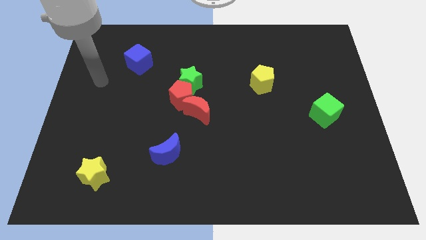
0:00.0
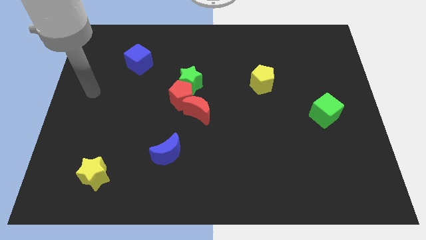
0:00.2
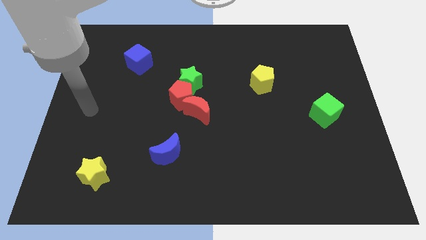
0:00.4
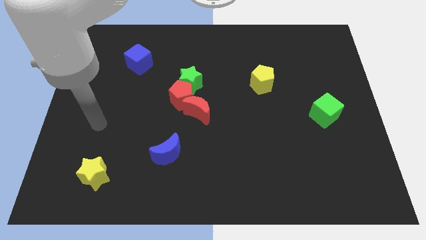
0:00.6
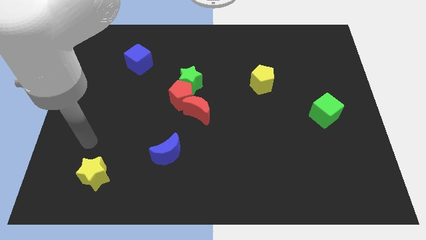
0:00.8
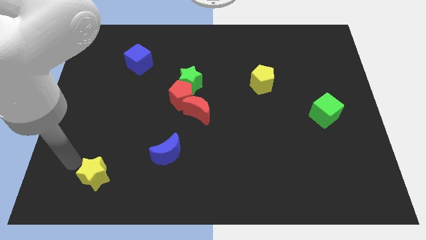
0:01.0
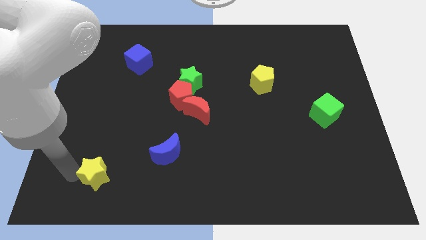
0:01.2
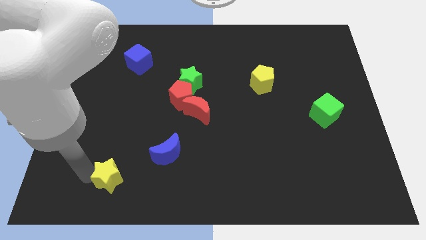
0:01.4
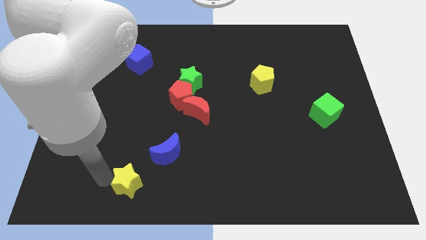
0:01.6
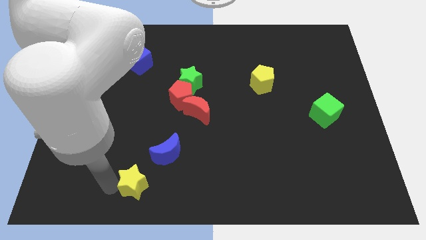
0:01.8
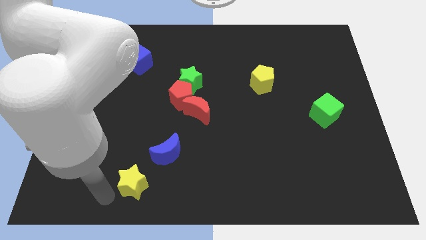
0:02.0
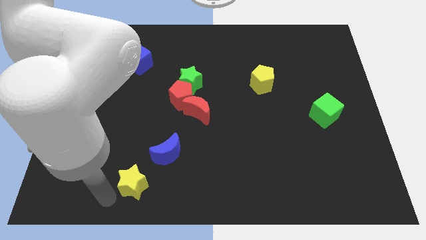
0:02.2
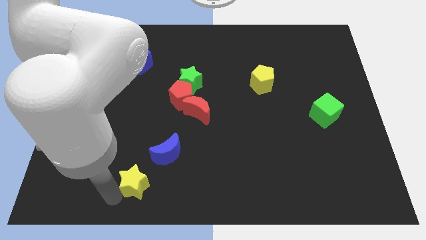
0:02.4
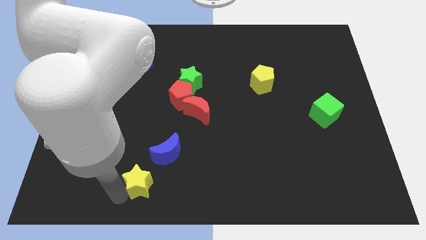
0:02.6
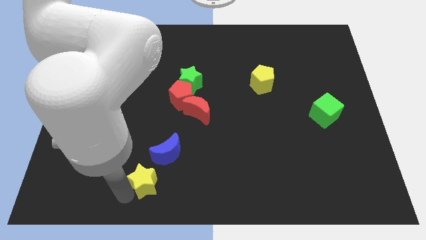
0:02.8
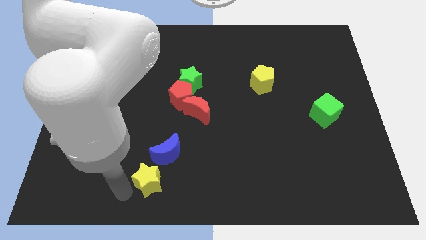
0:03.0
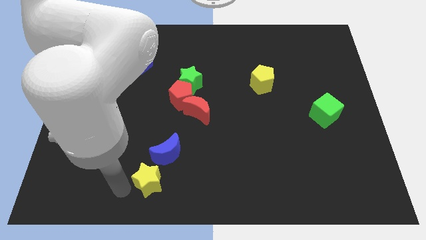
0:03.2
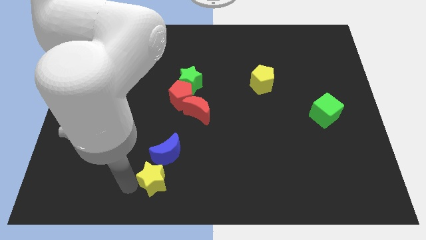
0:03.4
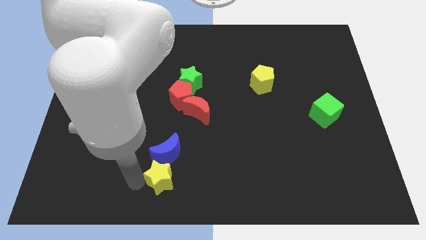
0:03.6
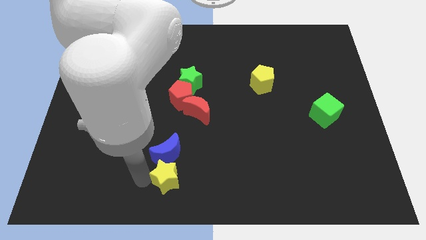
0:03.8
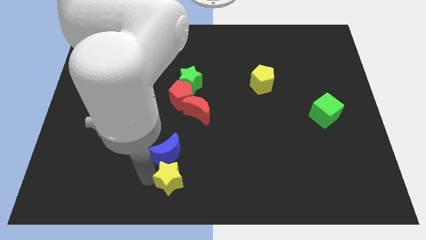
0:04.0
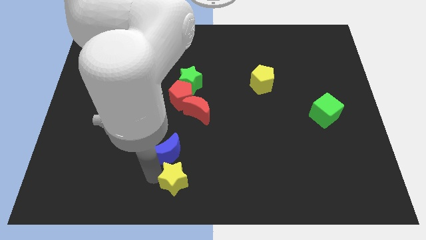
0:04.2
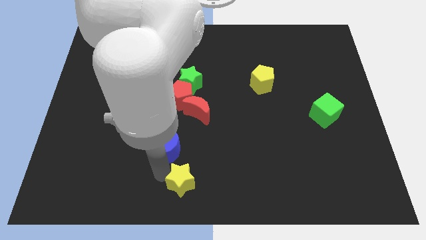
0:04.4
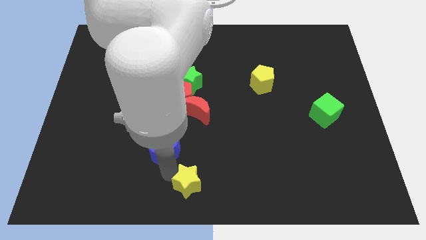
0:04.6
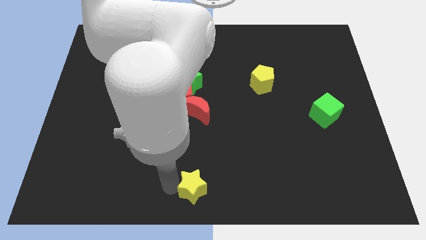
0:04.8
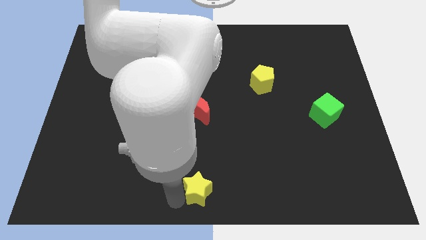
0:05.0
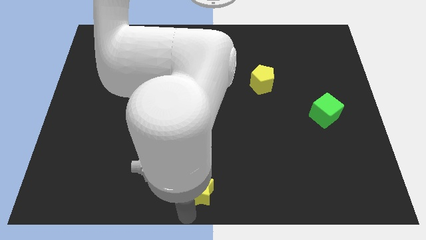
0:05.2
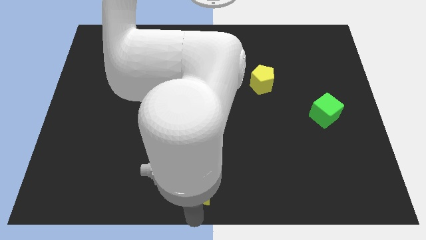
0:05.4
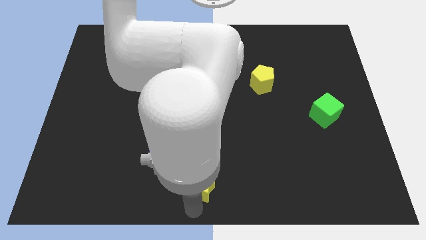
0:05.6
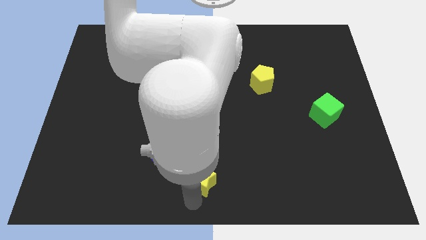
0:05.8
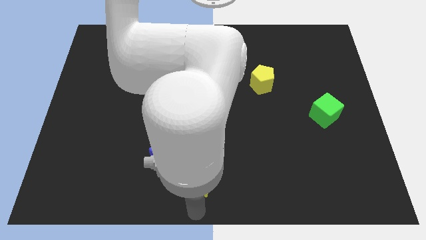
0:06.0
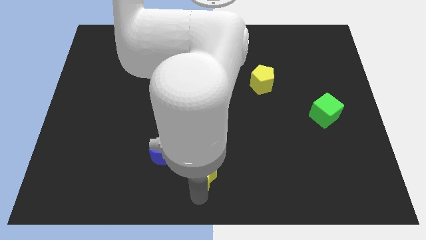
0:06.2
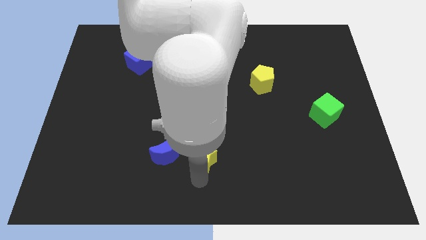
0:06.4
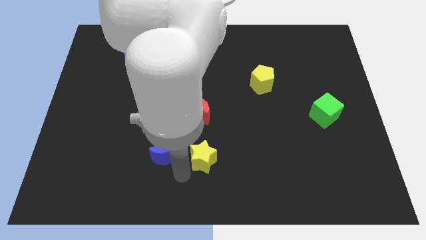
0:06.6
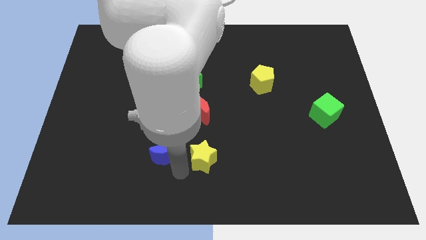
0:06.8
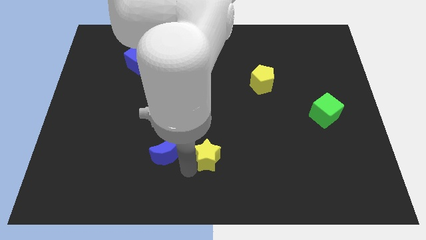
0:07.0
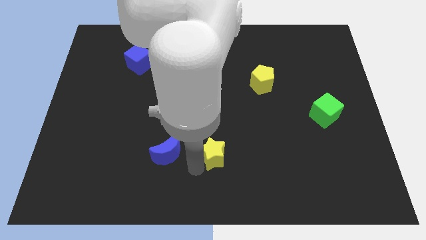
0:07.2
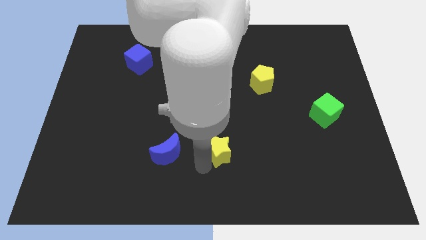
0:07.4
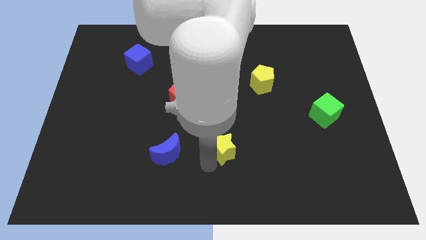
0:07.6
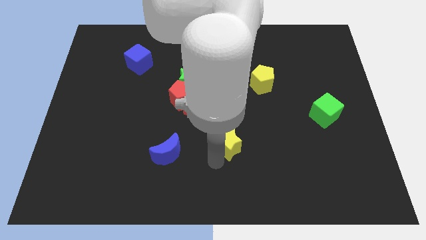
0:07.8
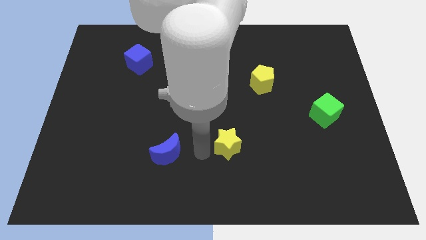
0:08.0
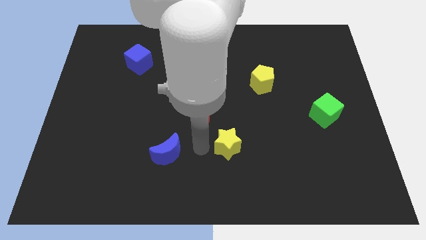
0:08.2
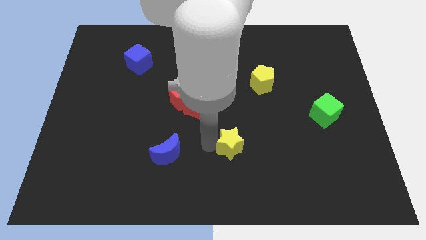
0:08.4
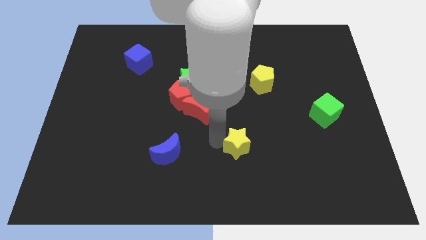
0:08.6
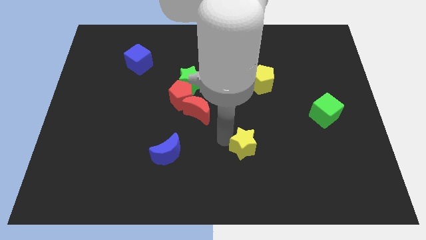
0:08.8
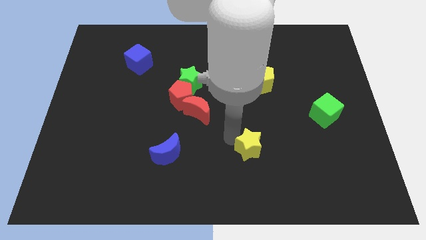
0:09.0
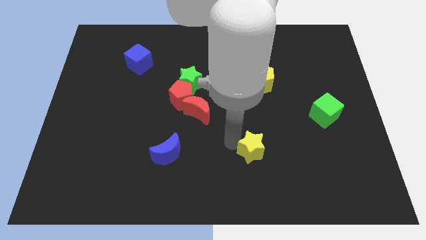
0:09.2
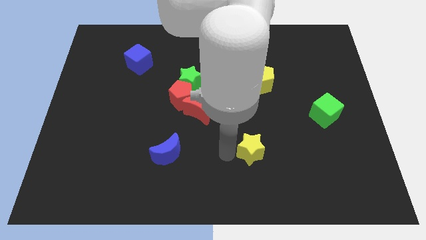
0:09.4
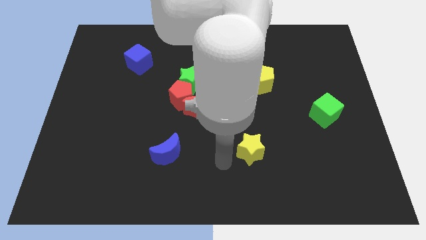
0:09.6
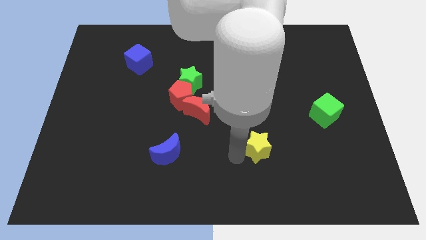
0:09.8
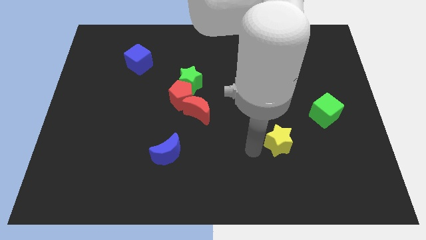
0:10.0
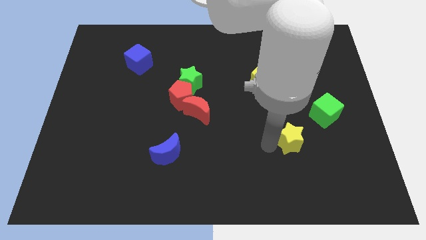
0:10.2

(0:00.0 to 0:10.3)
move the yellow star to the bottom left of the green cube

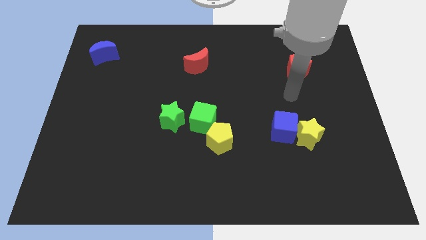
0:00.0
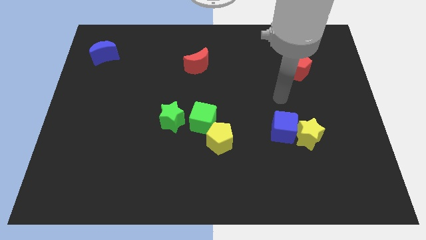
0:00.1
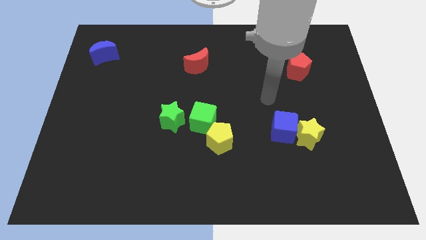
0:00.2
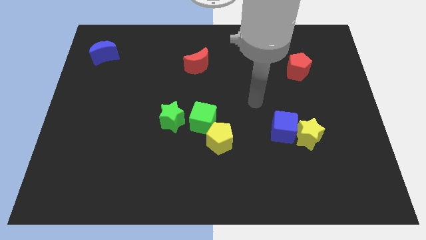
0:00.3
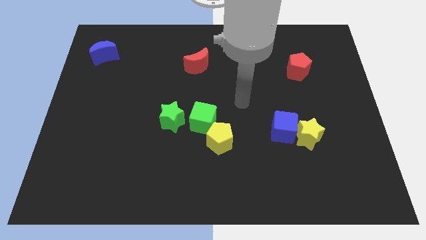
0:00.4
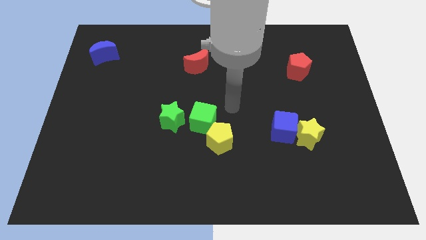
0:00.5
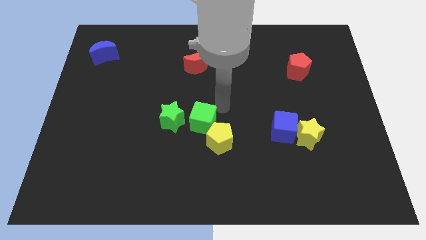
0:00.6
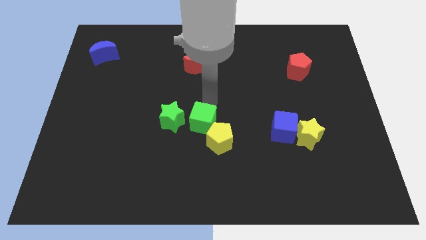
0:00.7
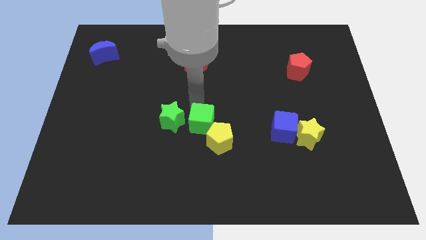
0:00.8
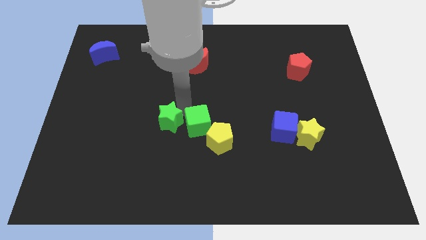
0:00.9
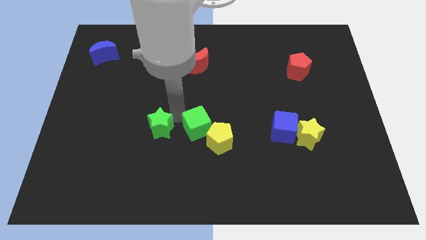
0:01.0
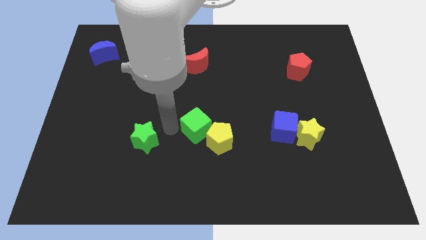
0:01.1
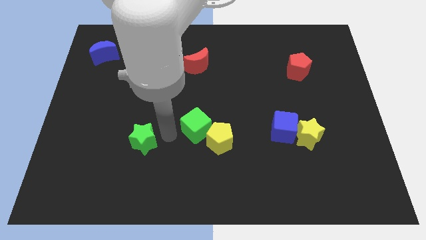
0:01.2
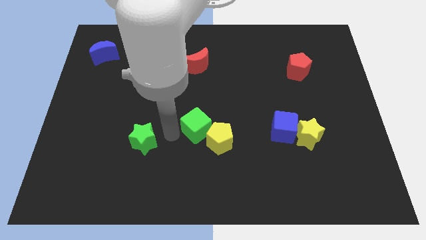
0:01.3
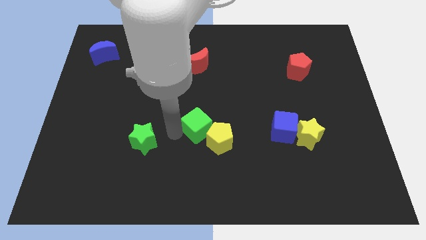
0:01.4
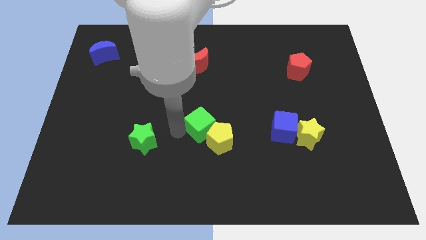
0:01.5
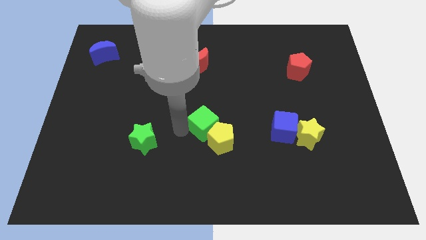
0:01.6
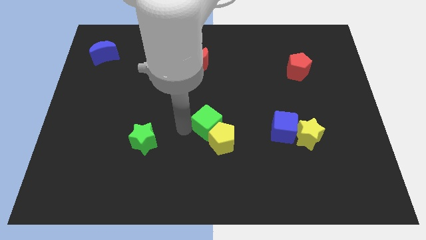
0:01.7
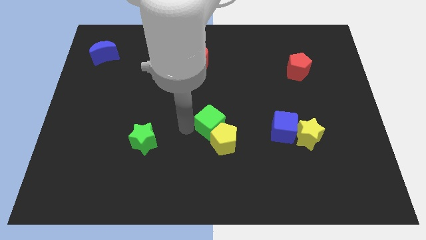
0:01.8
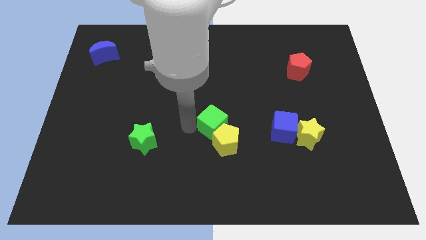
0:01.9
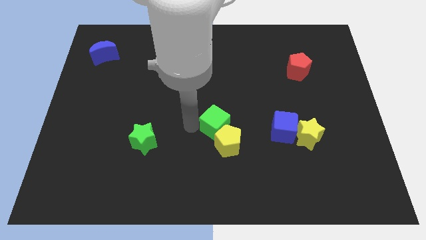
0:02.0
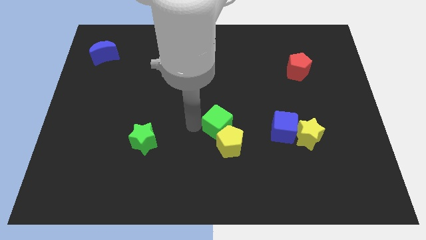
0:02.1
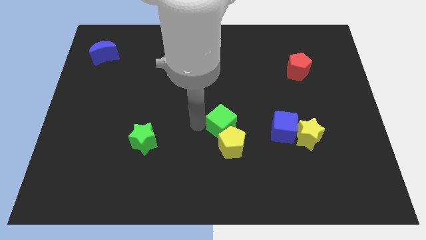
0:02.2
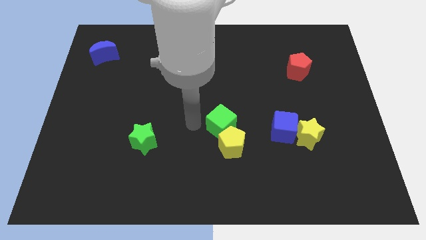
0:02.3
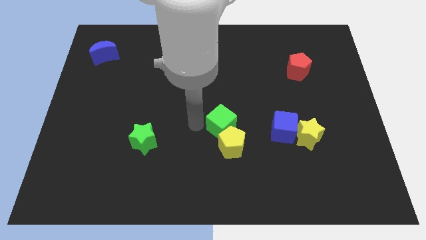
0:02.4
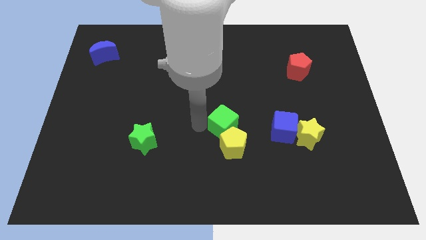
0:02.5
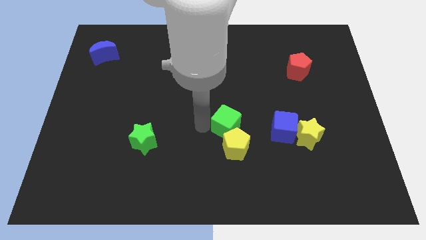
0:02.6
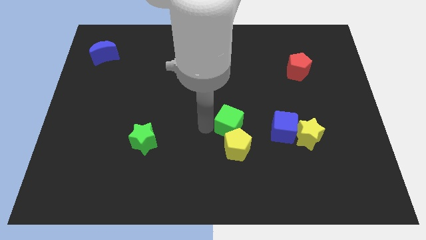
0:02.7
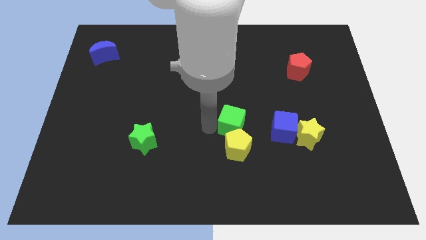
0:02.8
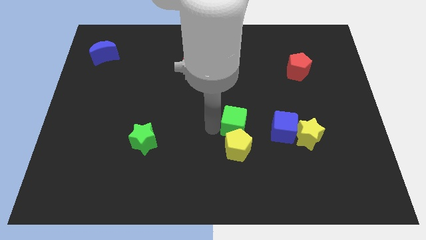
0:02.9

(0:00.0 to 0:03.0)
put the green cube diagonally up and to the right of the yellow pentagon

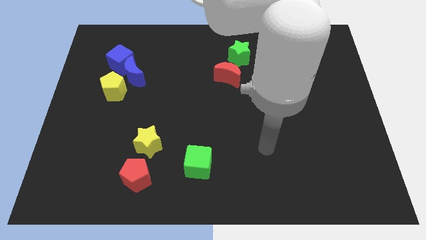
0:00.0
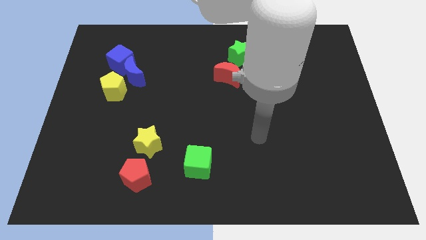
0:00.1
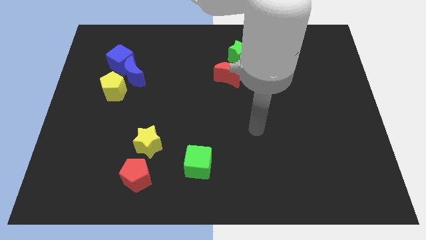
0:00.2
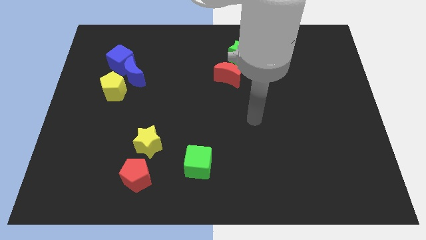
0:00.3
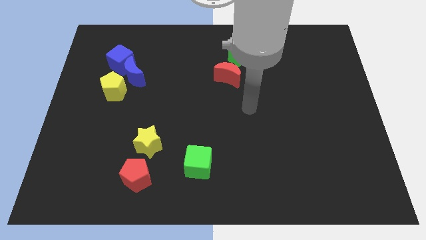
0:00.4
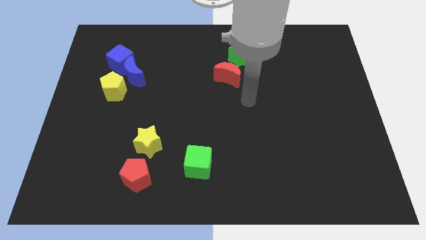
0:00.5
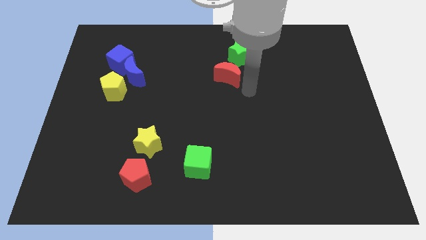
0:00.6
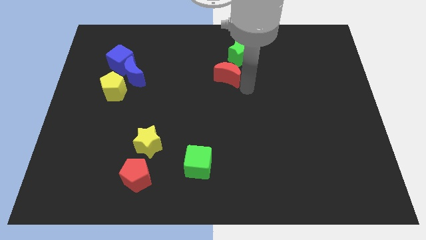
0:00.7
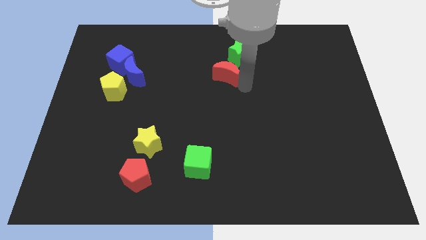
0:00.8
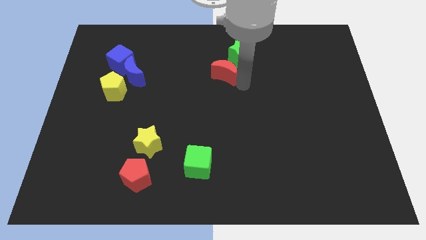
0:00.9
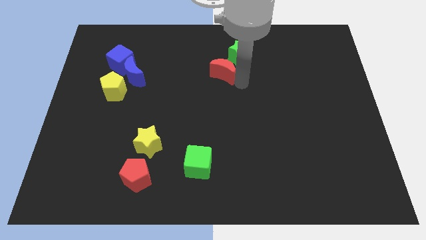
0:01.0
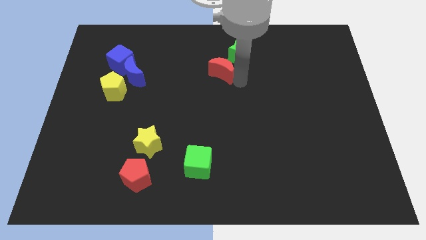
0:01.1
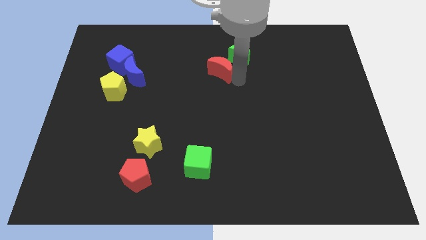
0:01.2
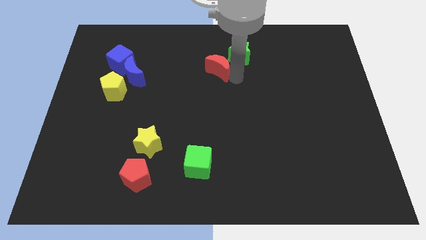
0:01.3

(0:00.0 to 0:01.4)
slide the red moon left of the green star
